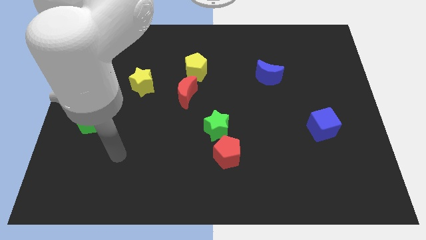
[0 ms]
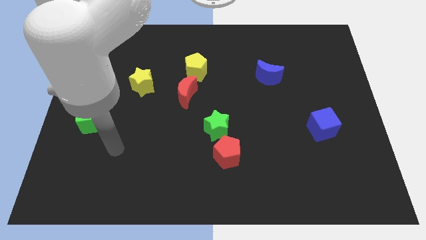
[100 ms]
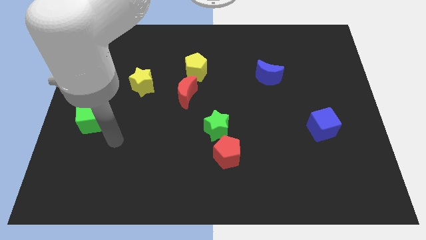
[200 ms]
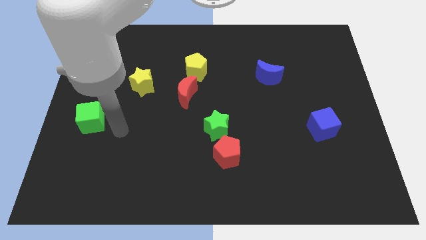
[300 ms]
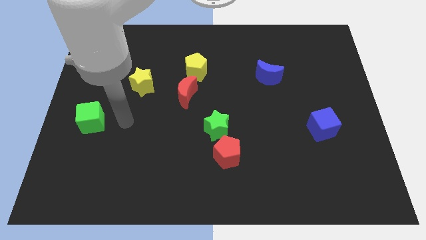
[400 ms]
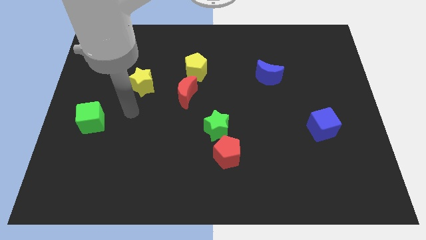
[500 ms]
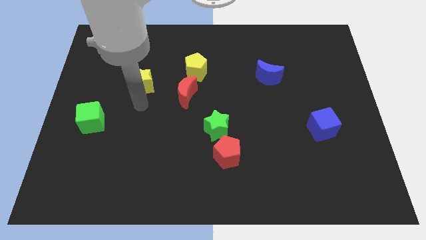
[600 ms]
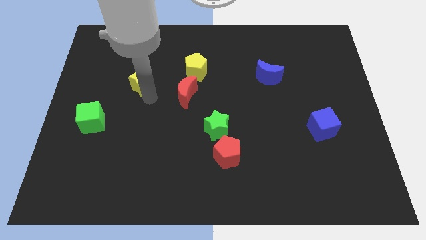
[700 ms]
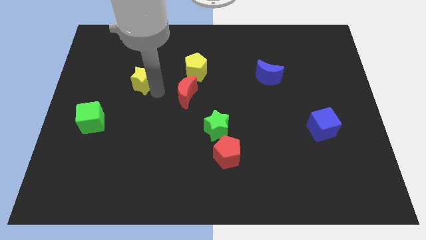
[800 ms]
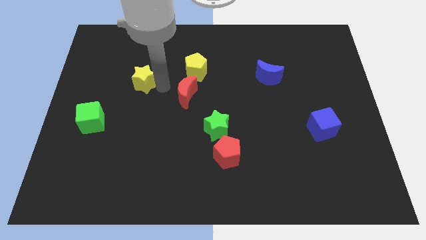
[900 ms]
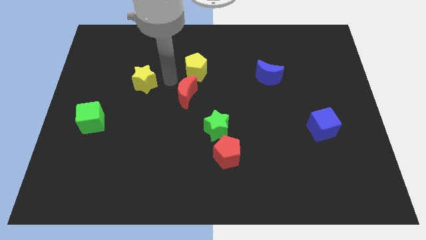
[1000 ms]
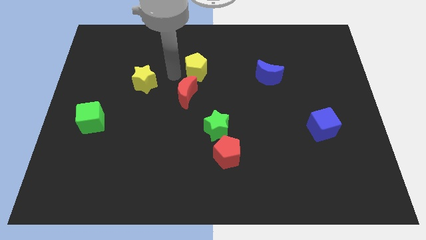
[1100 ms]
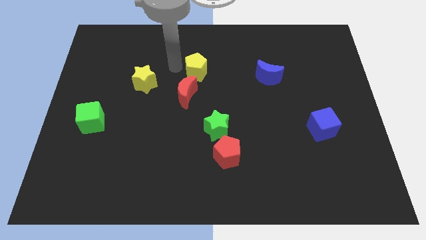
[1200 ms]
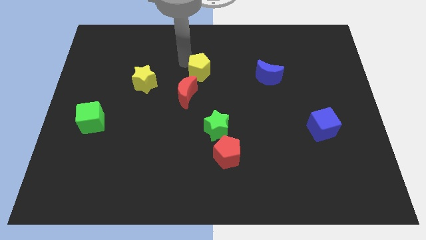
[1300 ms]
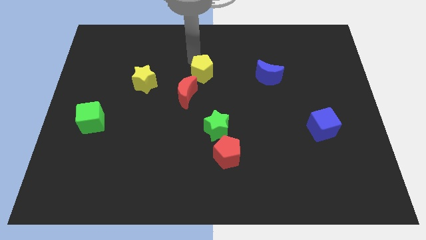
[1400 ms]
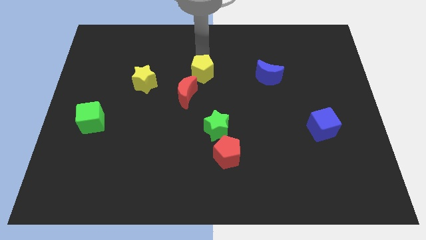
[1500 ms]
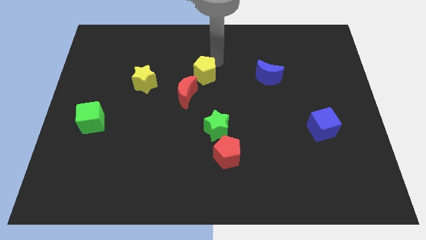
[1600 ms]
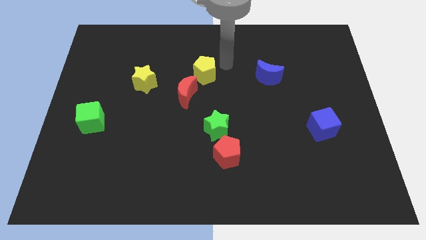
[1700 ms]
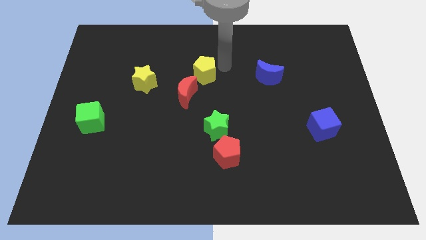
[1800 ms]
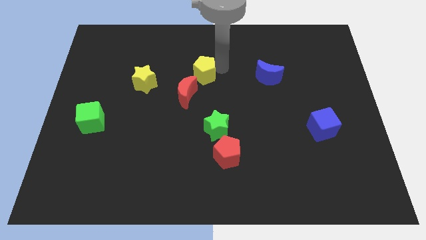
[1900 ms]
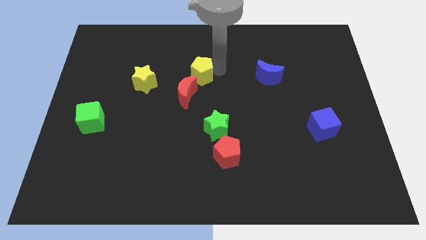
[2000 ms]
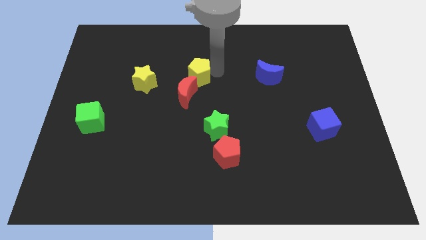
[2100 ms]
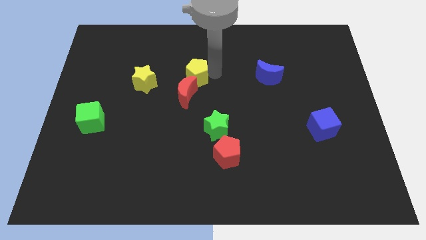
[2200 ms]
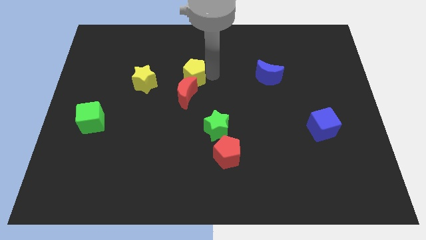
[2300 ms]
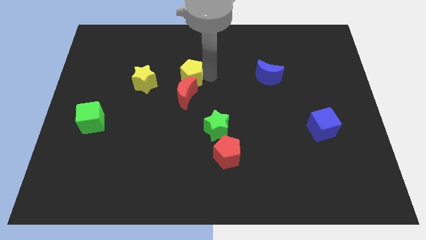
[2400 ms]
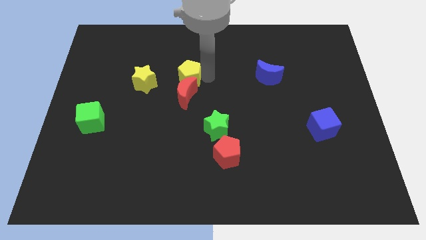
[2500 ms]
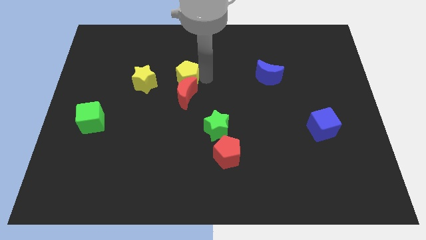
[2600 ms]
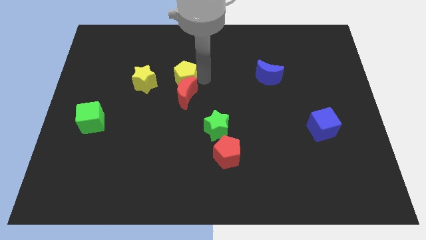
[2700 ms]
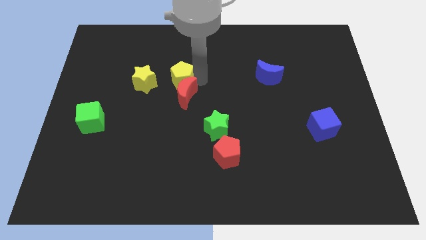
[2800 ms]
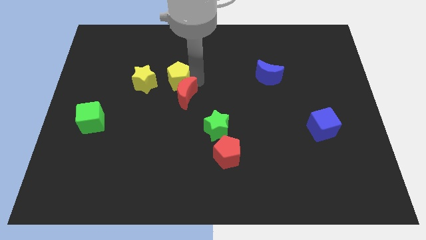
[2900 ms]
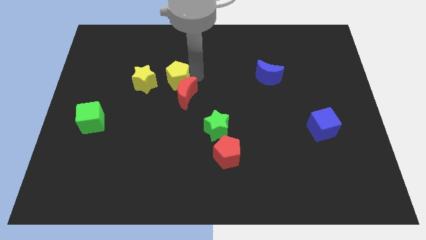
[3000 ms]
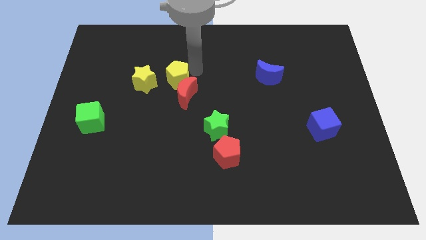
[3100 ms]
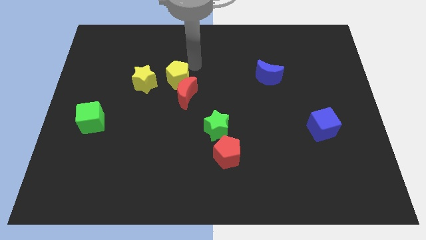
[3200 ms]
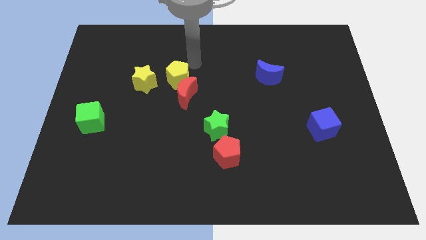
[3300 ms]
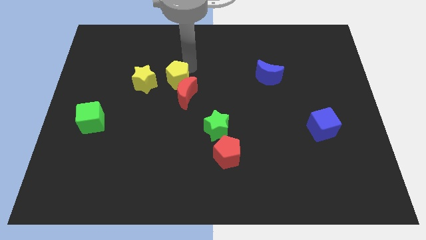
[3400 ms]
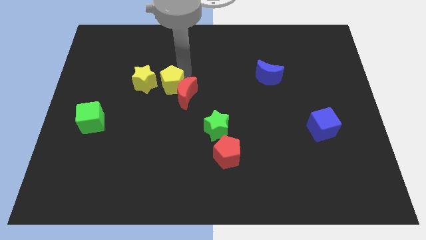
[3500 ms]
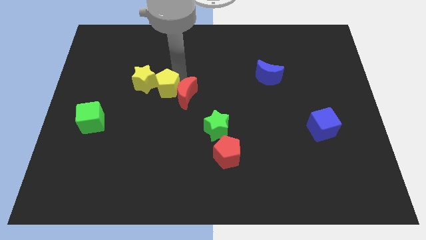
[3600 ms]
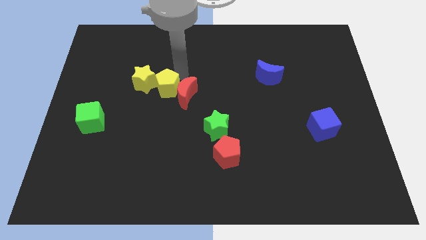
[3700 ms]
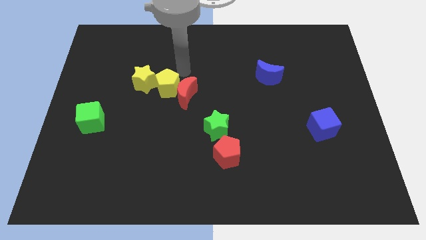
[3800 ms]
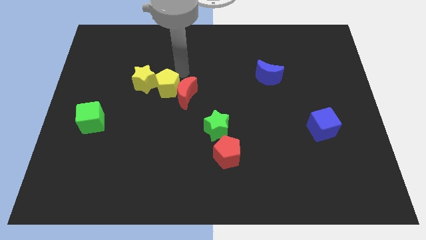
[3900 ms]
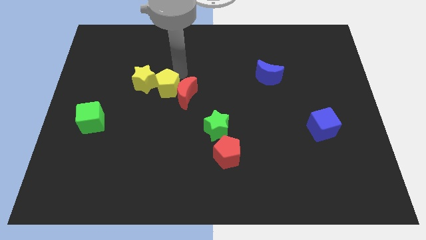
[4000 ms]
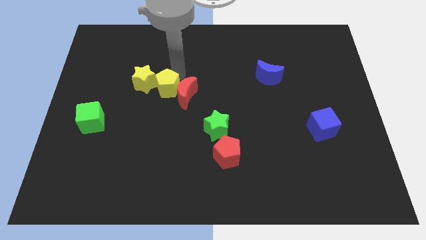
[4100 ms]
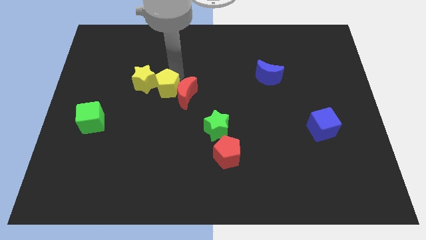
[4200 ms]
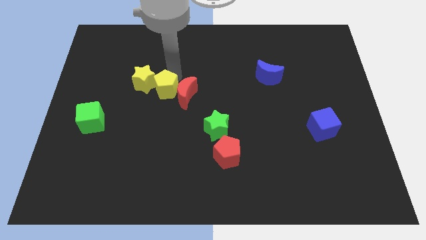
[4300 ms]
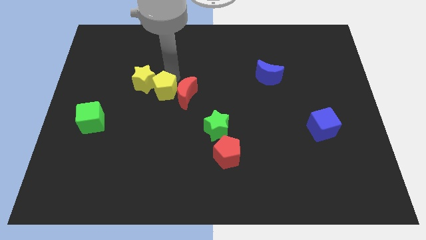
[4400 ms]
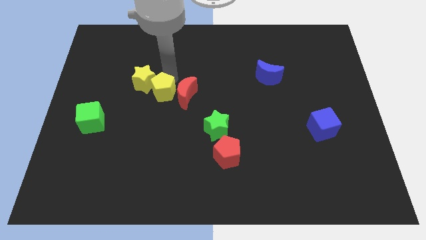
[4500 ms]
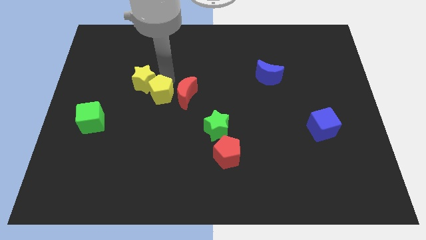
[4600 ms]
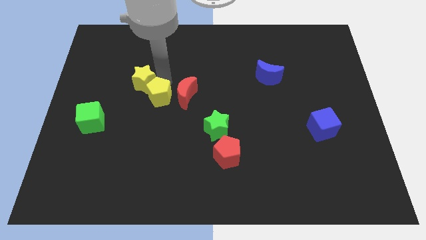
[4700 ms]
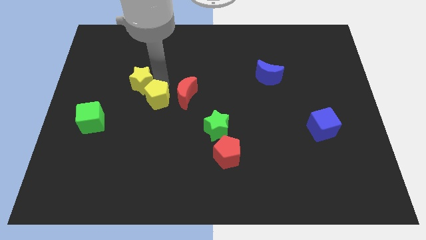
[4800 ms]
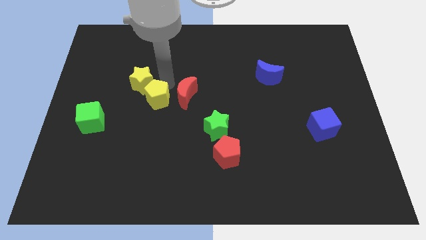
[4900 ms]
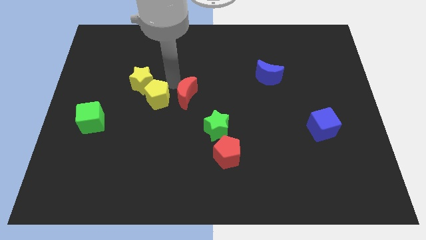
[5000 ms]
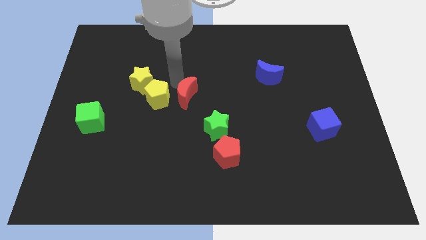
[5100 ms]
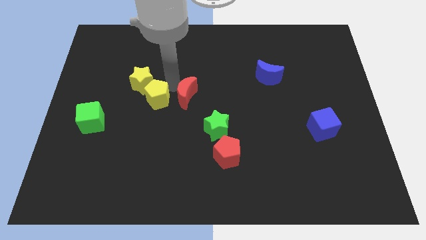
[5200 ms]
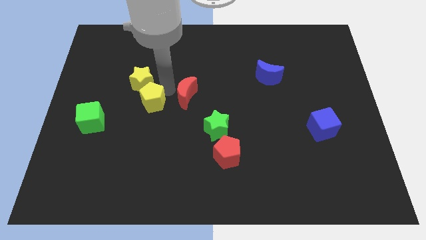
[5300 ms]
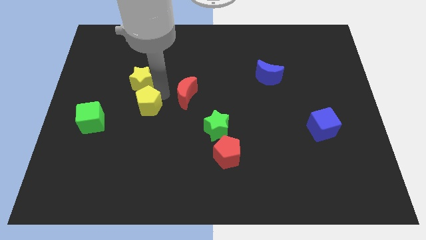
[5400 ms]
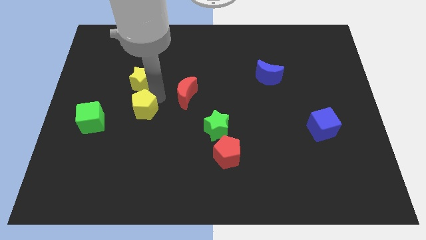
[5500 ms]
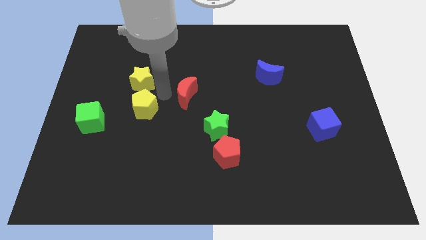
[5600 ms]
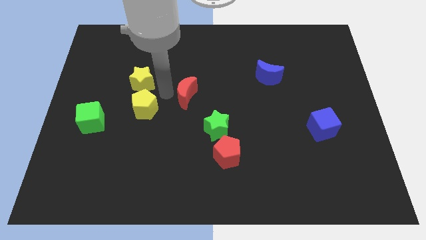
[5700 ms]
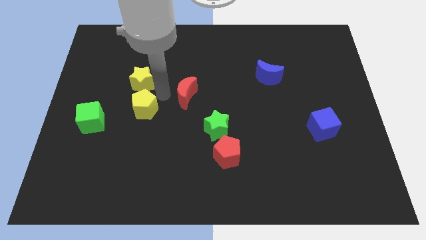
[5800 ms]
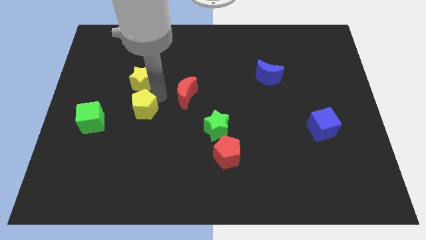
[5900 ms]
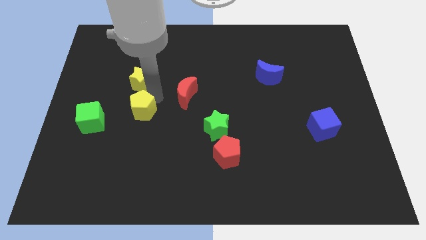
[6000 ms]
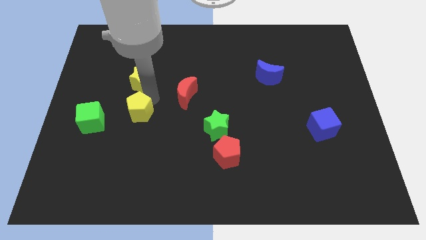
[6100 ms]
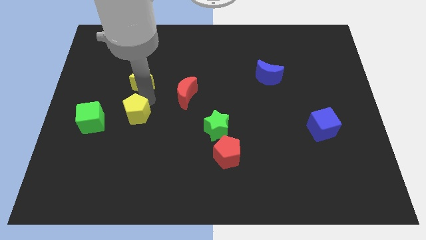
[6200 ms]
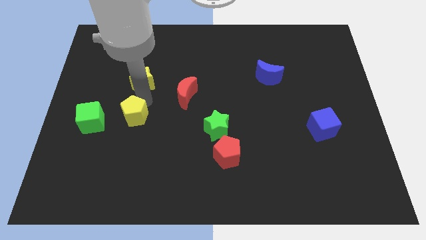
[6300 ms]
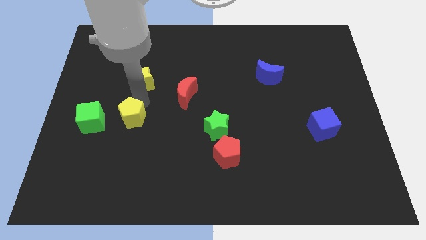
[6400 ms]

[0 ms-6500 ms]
slide the yellow pentagon diagonally downwards and left

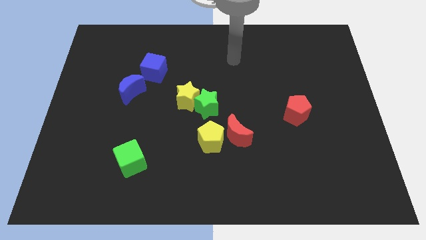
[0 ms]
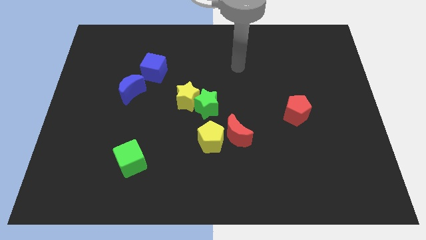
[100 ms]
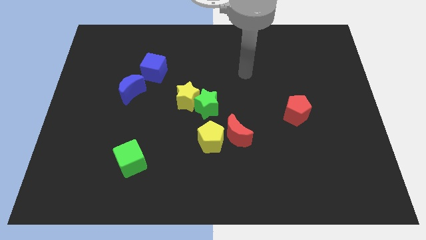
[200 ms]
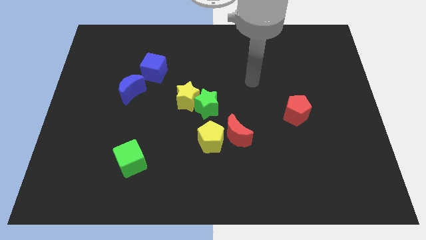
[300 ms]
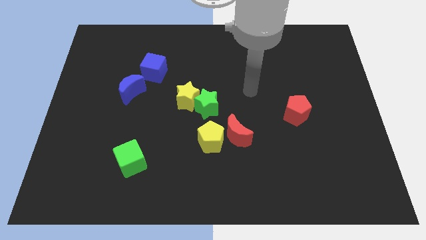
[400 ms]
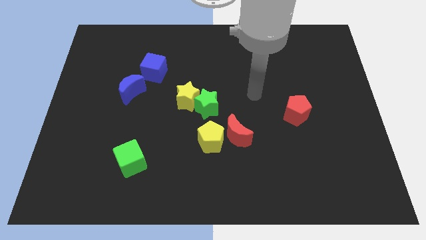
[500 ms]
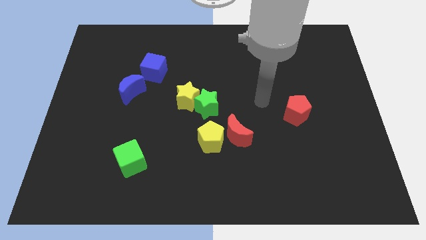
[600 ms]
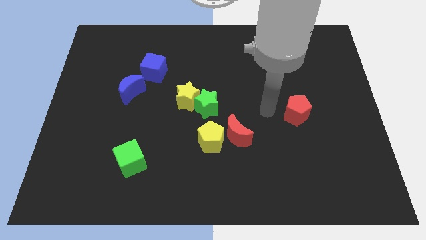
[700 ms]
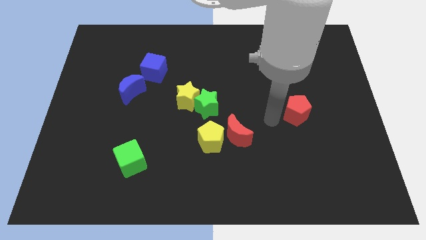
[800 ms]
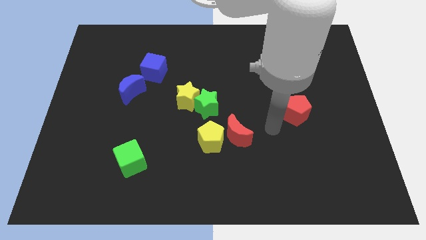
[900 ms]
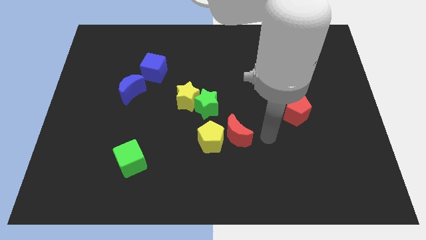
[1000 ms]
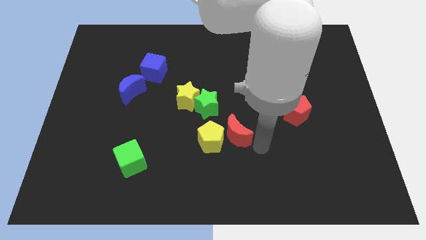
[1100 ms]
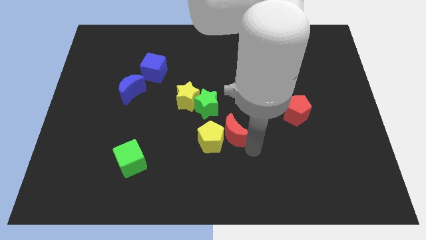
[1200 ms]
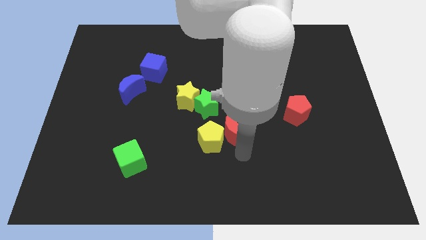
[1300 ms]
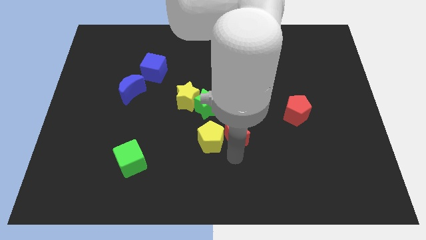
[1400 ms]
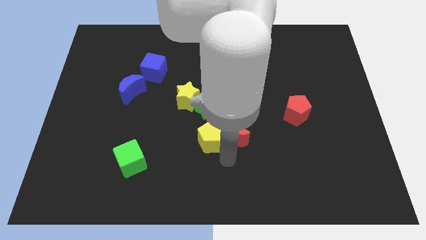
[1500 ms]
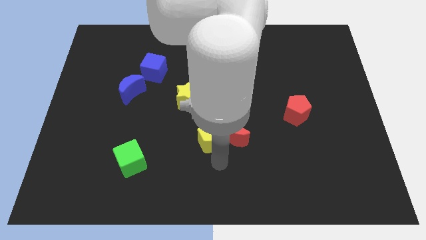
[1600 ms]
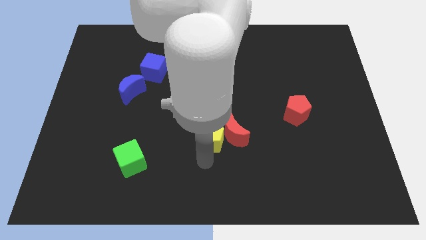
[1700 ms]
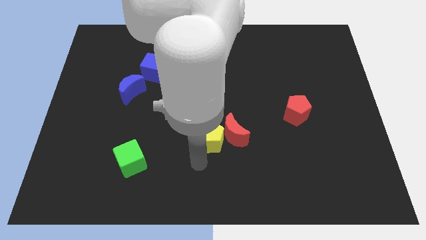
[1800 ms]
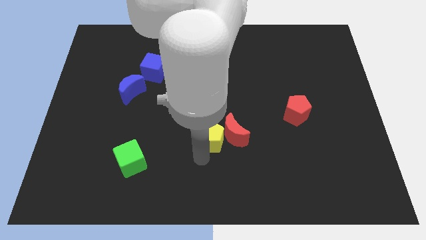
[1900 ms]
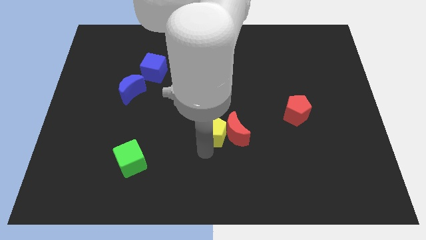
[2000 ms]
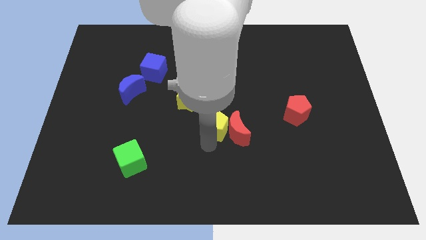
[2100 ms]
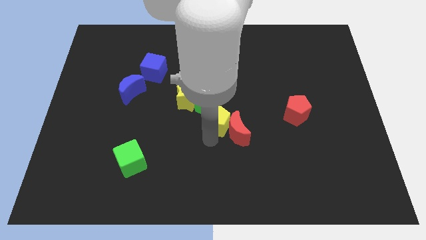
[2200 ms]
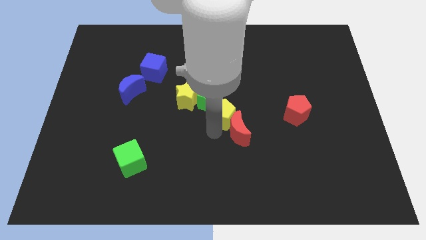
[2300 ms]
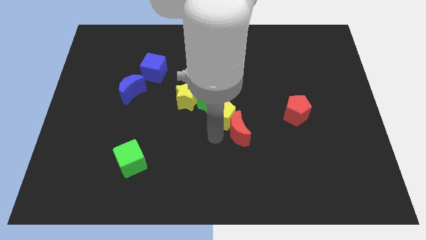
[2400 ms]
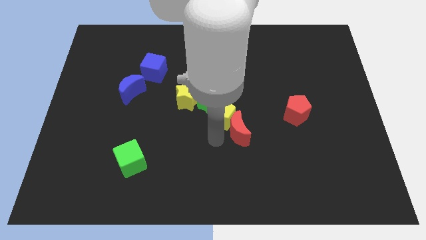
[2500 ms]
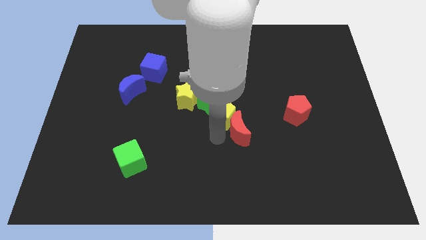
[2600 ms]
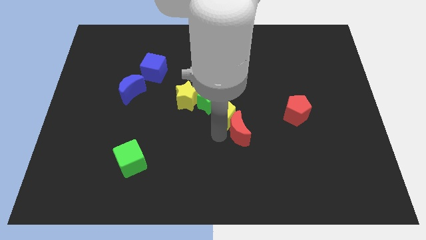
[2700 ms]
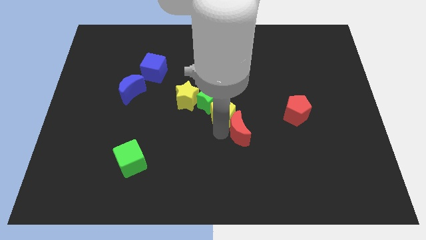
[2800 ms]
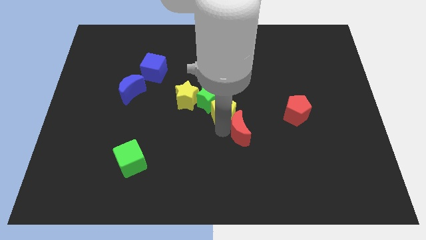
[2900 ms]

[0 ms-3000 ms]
push the yellow pentagon up slightly
